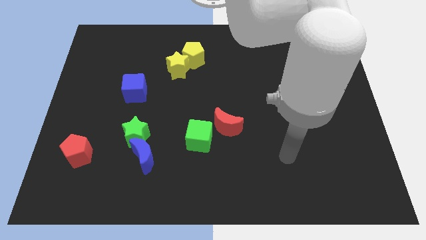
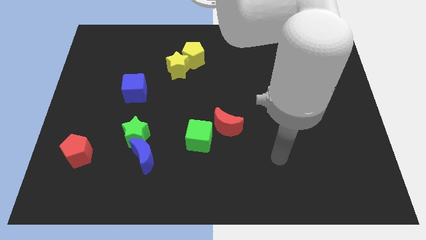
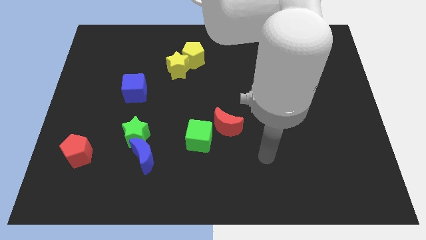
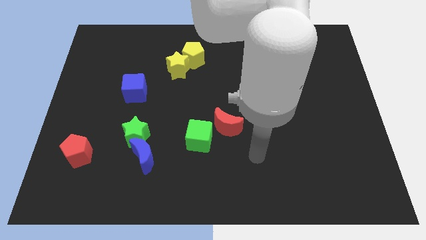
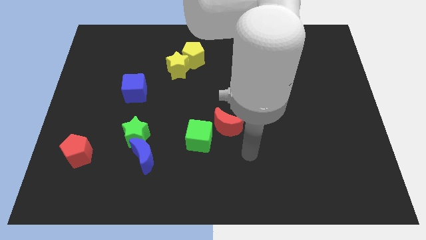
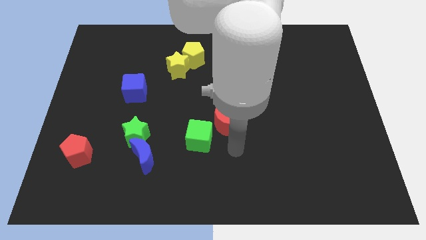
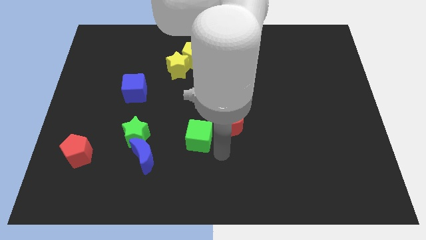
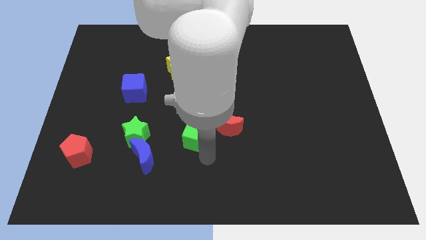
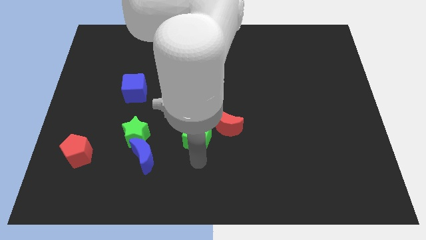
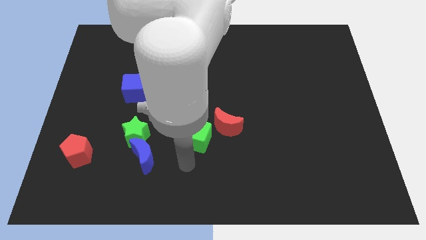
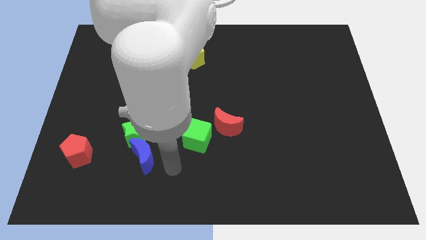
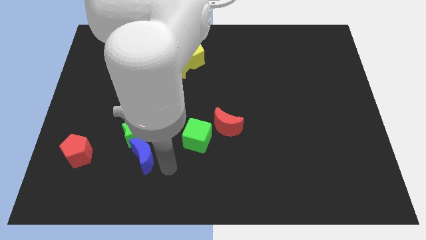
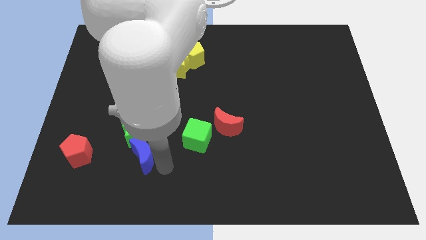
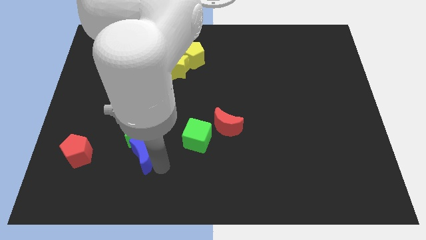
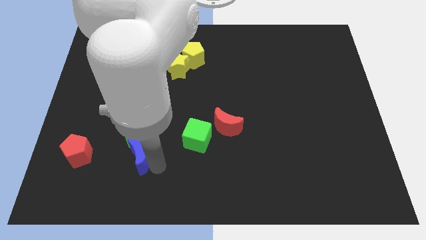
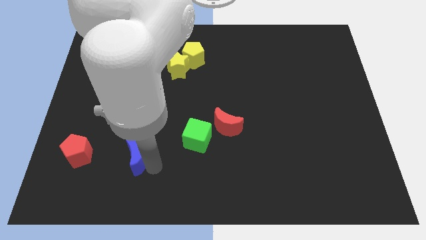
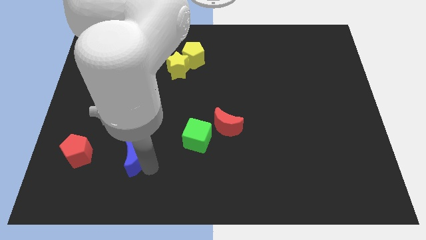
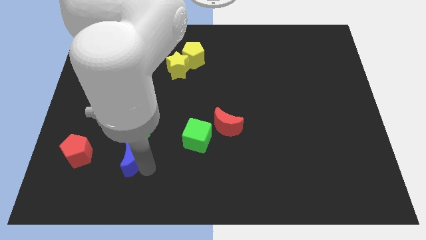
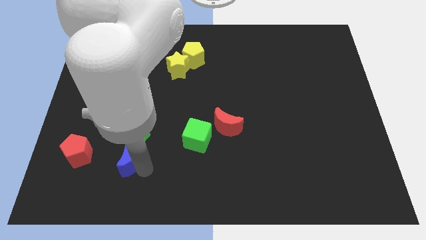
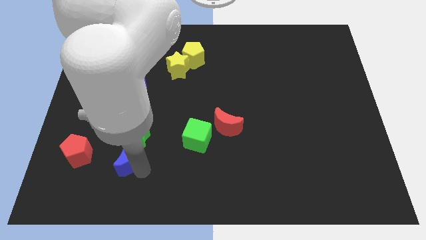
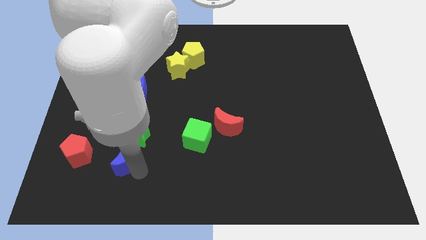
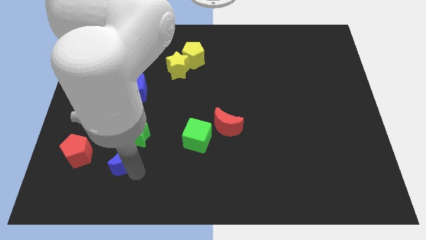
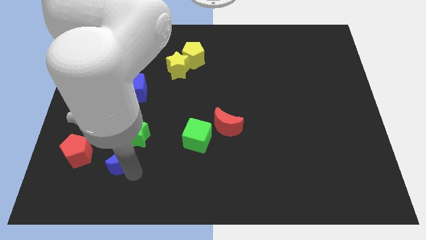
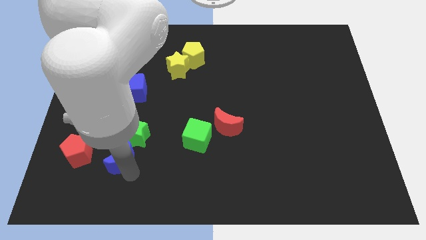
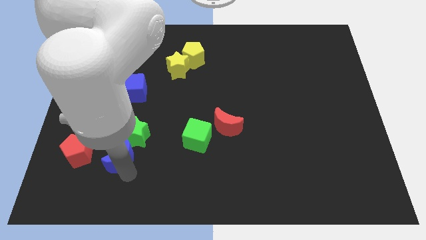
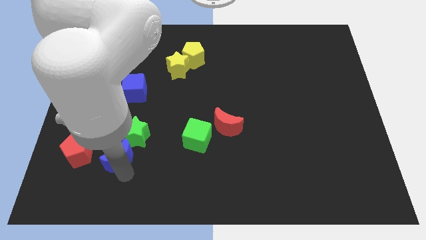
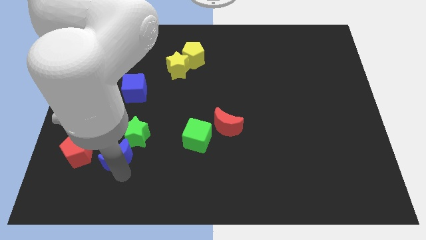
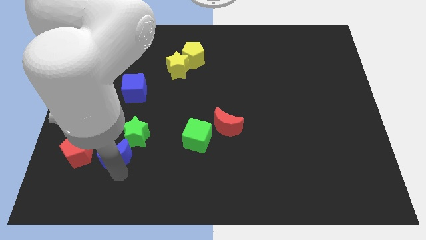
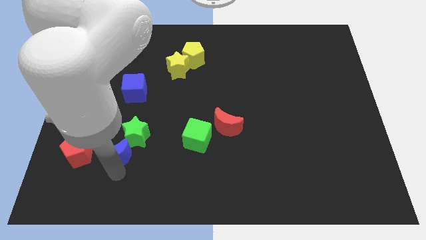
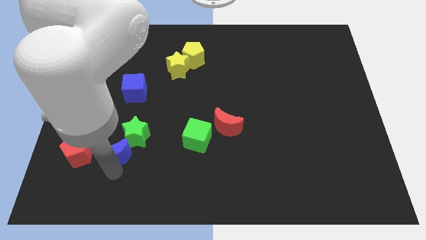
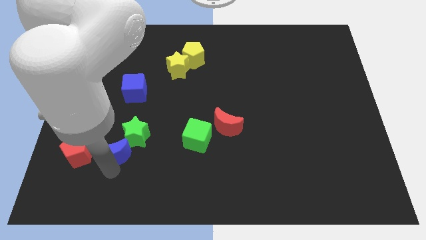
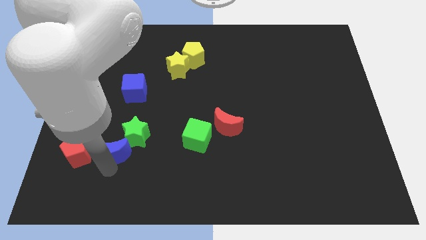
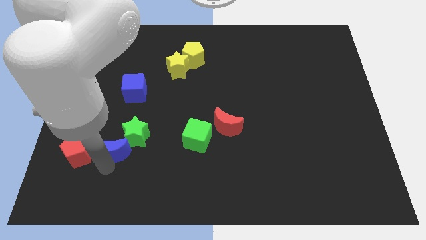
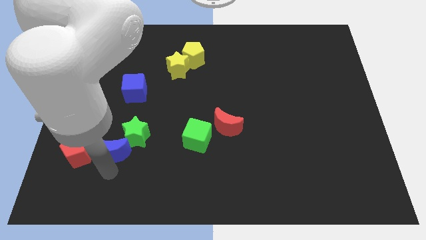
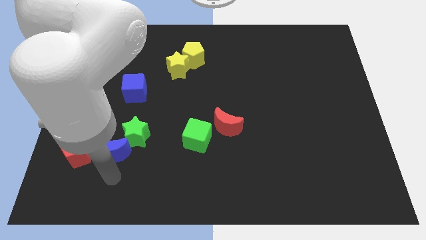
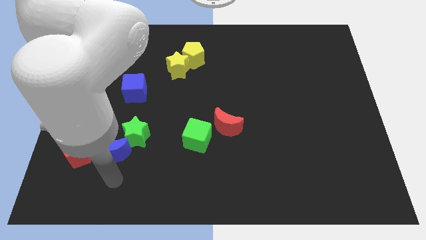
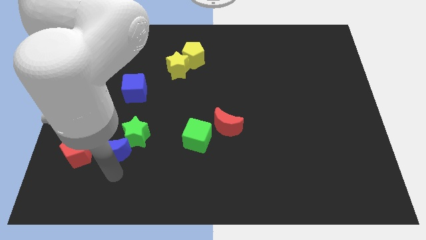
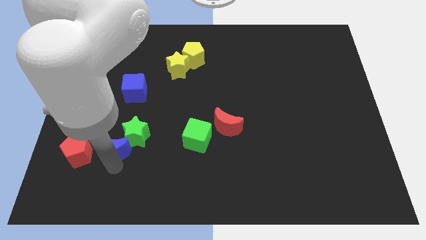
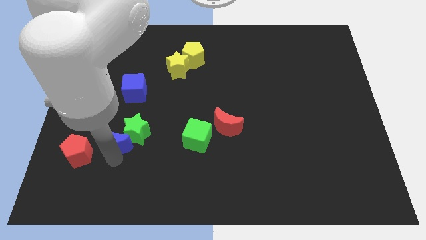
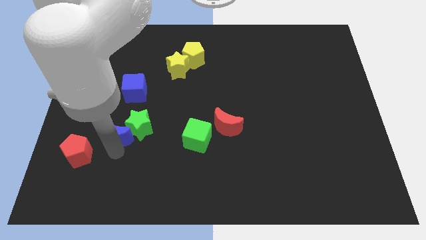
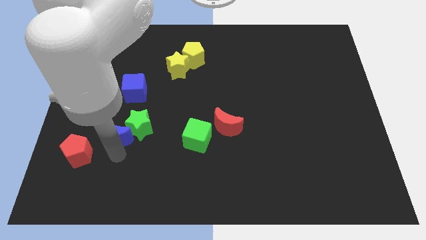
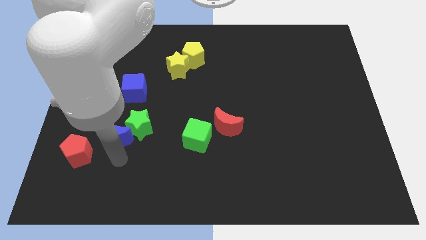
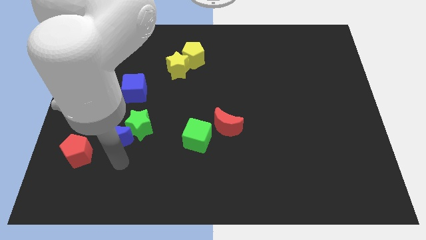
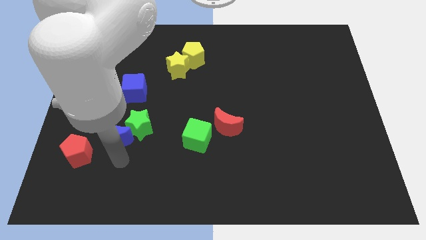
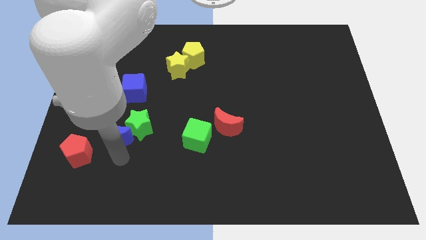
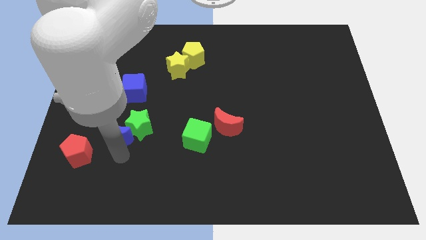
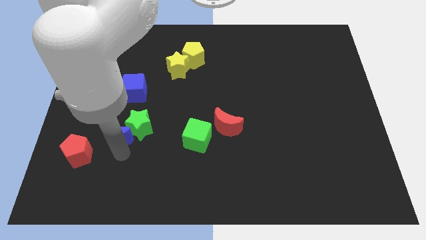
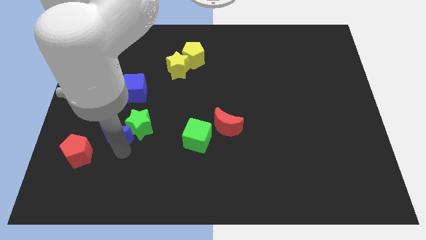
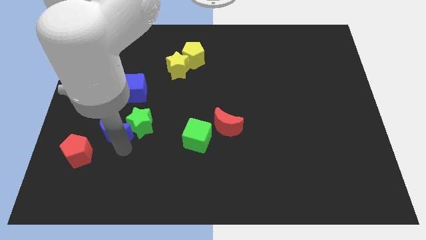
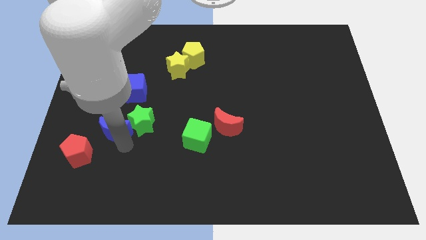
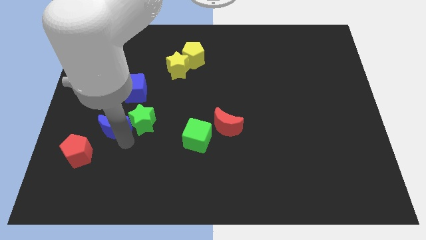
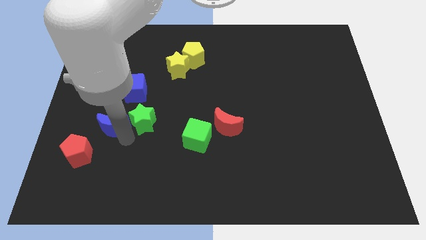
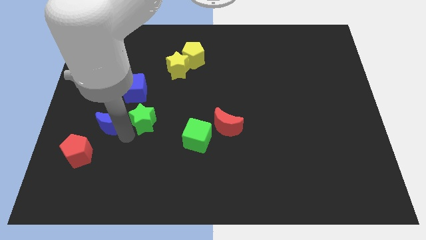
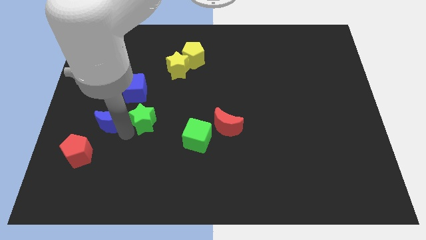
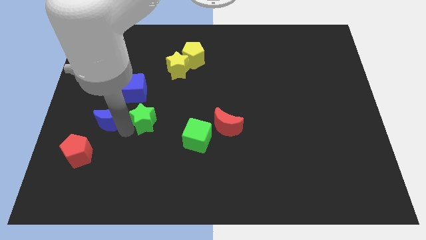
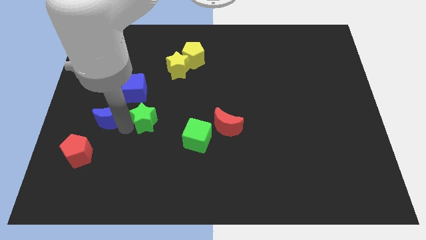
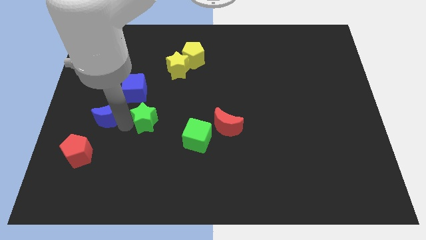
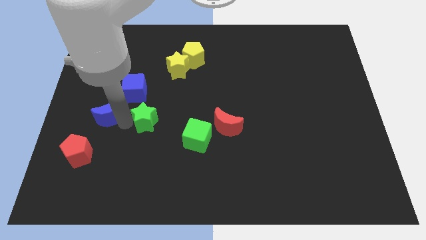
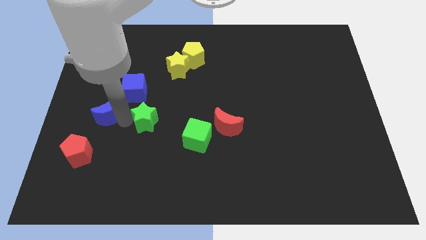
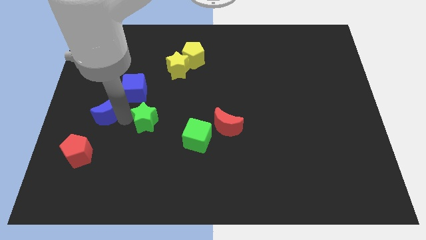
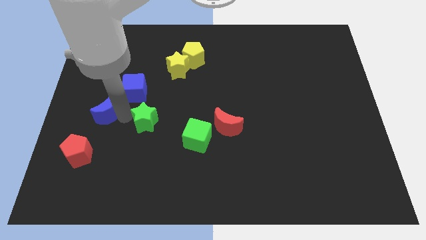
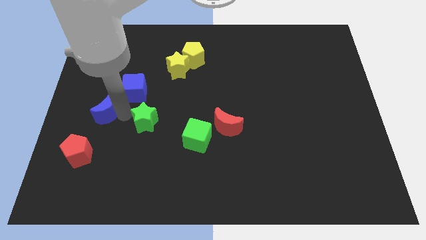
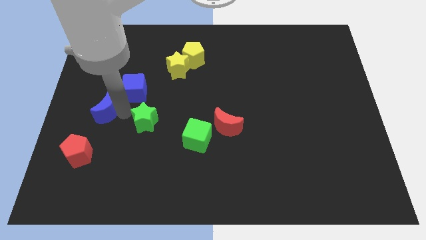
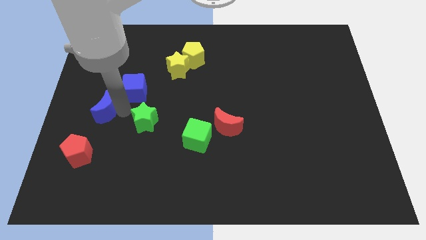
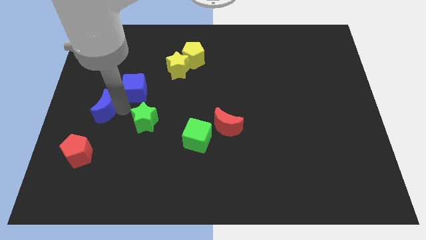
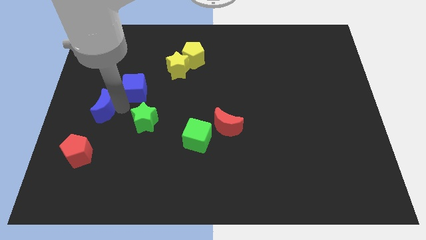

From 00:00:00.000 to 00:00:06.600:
slide the blue moon to the left side of the board

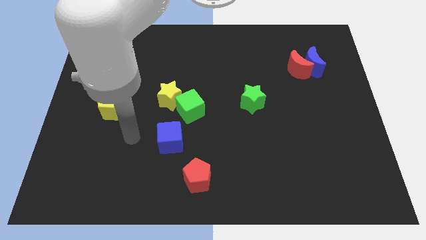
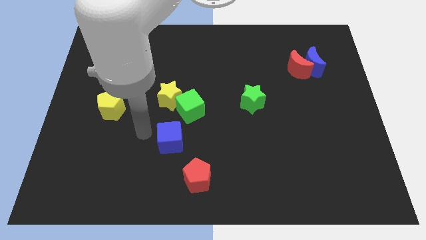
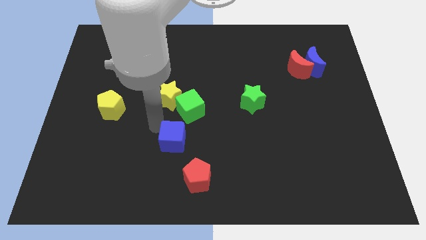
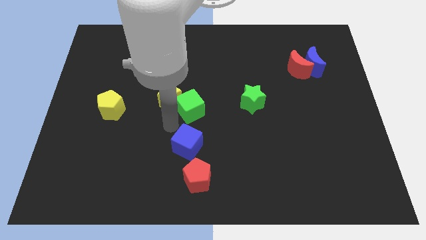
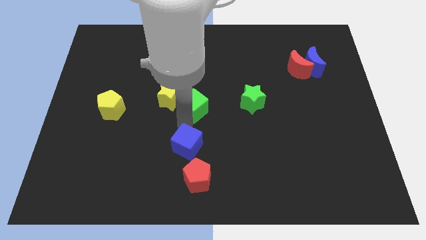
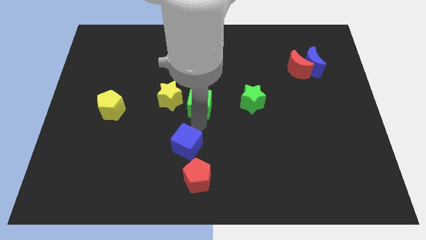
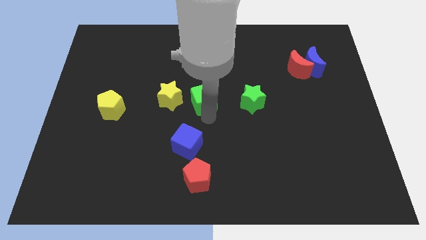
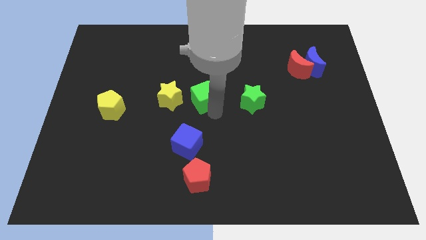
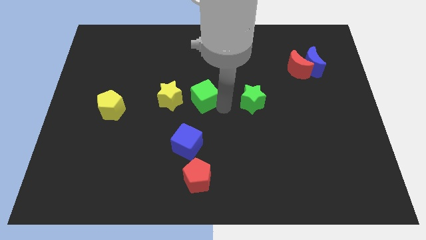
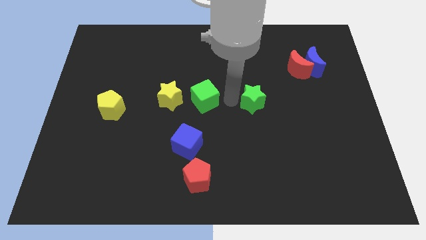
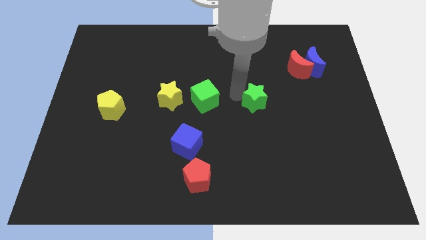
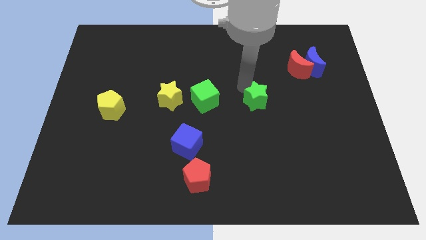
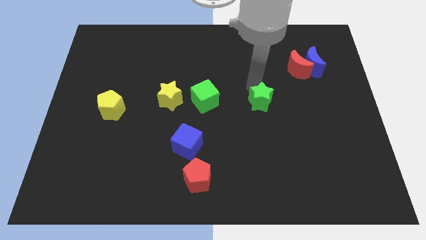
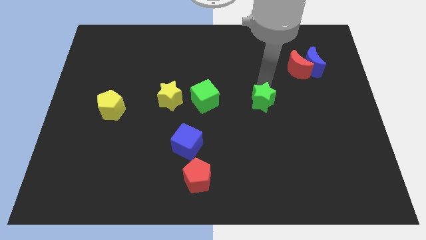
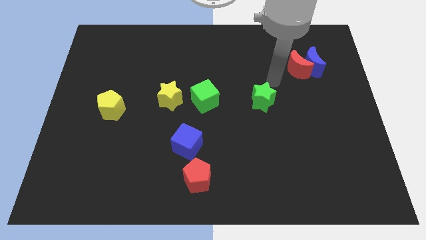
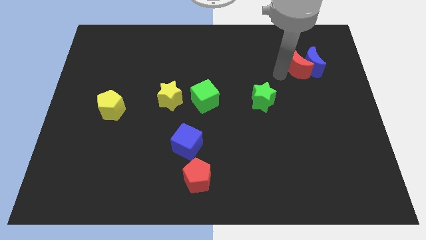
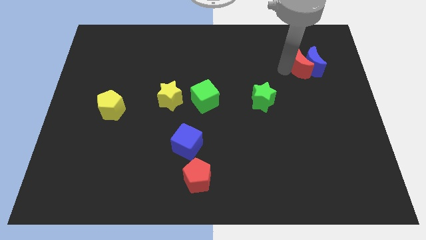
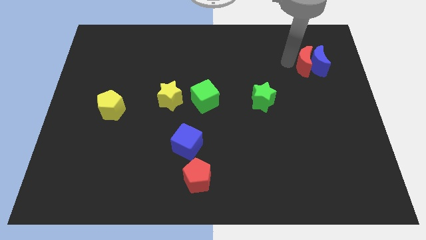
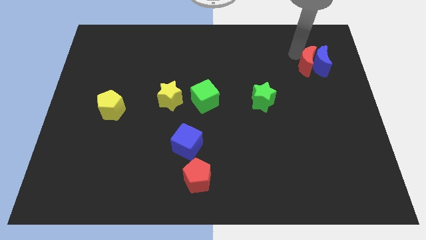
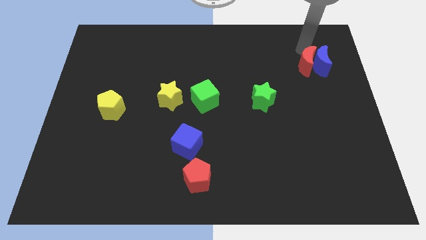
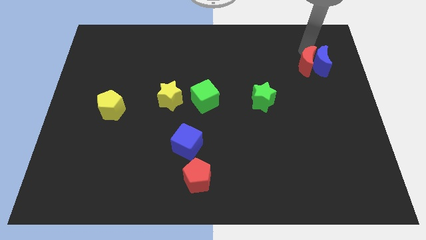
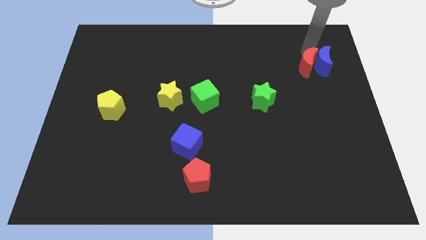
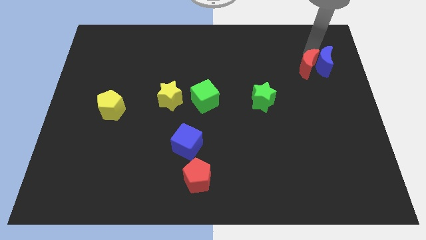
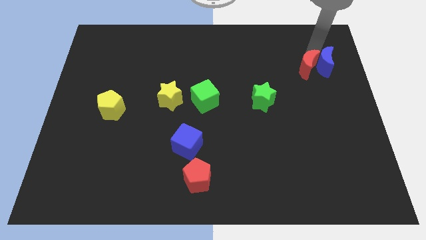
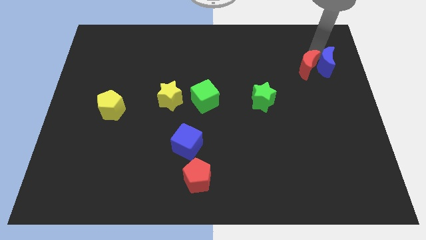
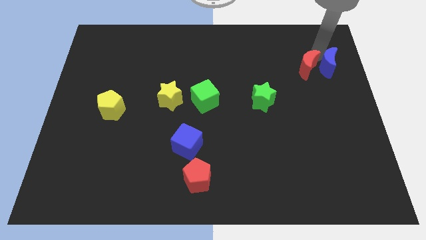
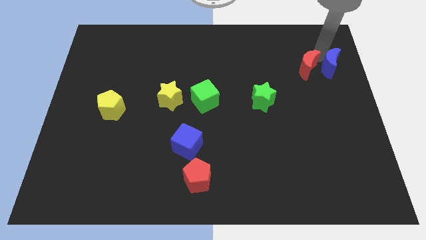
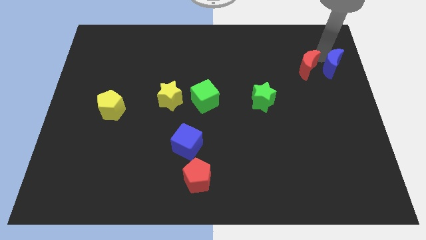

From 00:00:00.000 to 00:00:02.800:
move the blue moon to the center right
